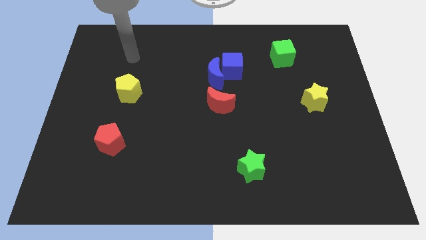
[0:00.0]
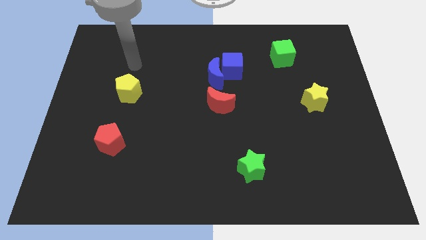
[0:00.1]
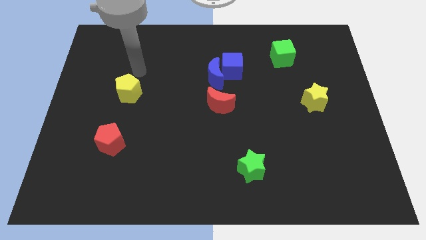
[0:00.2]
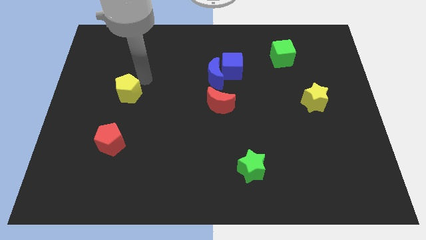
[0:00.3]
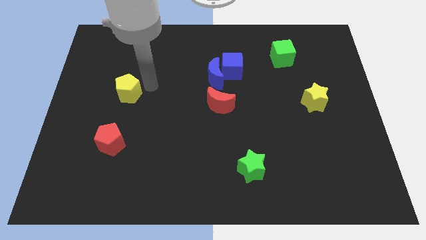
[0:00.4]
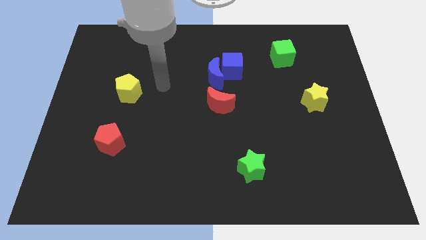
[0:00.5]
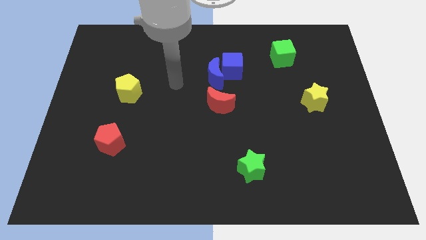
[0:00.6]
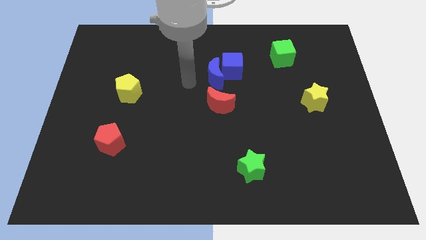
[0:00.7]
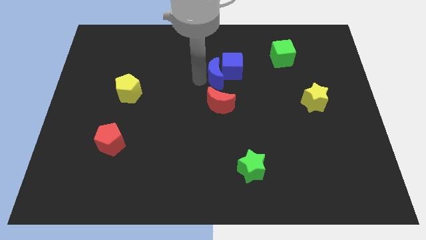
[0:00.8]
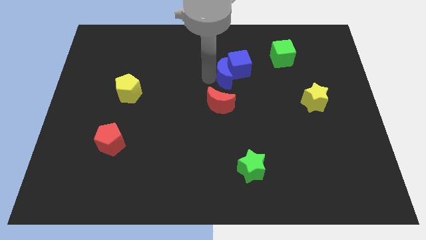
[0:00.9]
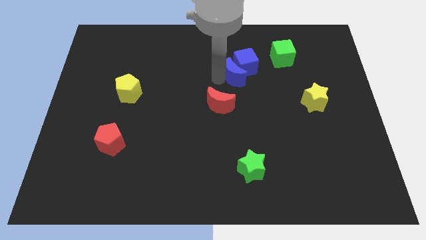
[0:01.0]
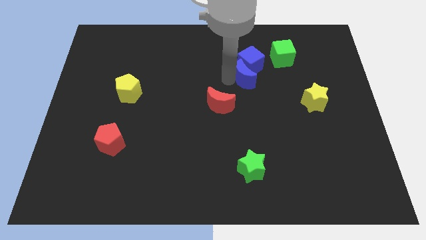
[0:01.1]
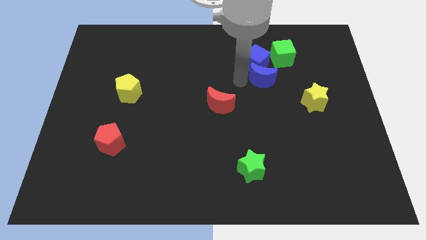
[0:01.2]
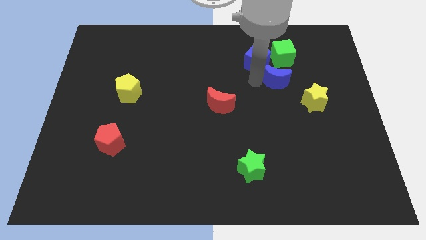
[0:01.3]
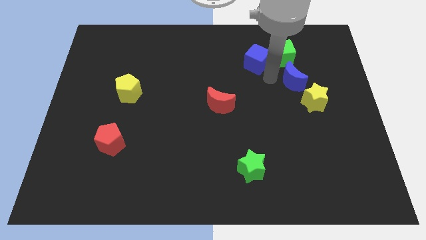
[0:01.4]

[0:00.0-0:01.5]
pull the blue cube apart from the blue moon

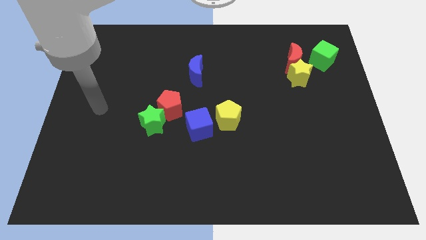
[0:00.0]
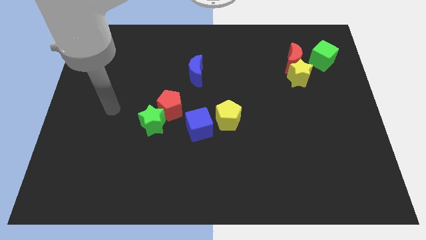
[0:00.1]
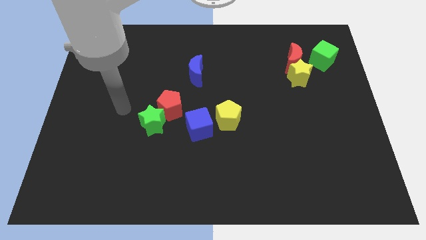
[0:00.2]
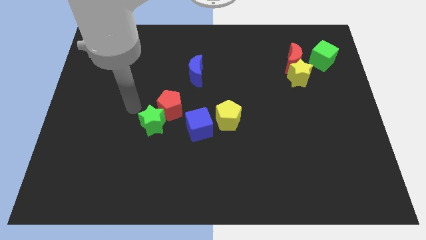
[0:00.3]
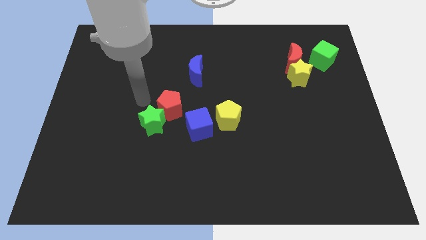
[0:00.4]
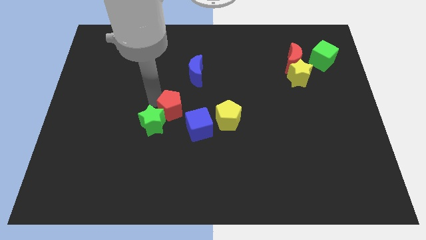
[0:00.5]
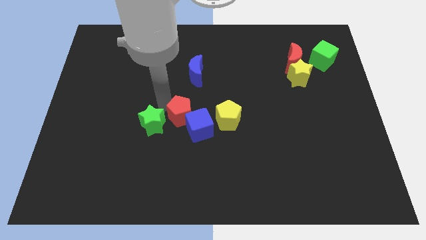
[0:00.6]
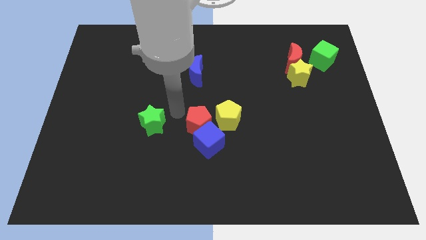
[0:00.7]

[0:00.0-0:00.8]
pull the green star apart from the red pentagon

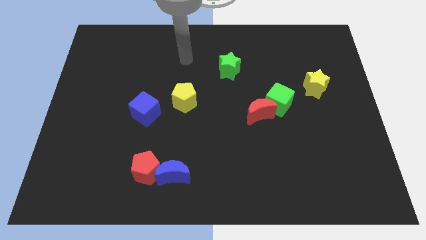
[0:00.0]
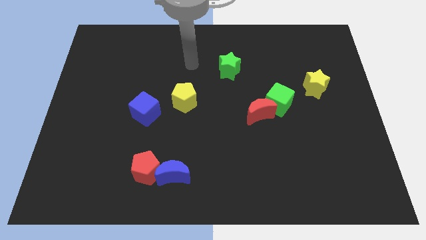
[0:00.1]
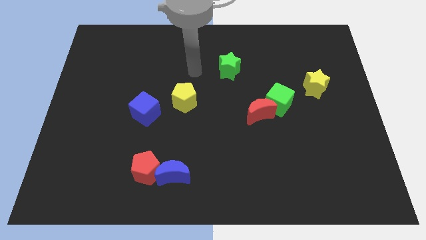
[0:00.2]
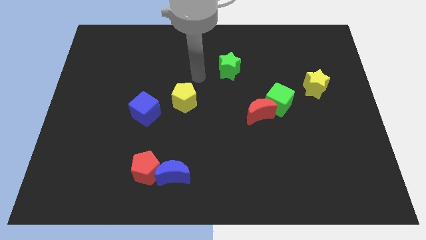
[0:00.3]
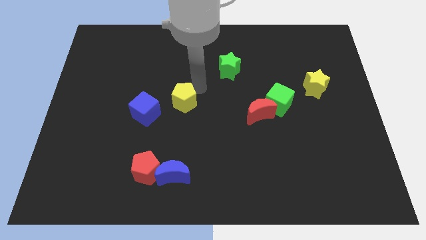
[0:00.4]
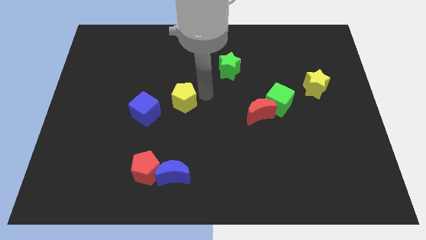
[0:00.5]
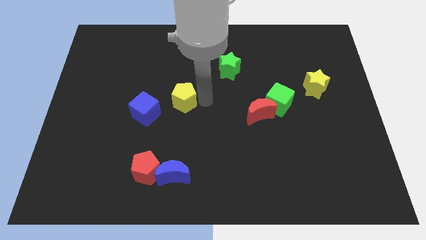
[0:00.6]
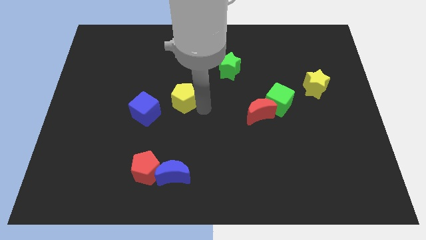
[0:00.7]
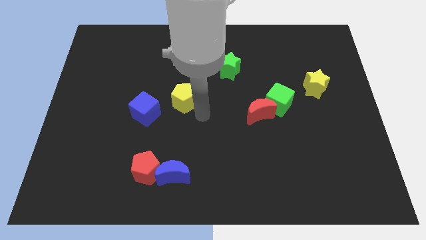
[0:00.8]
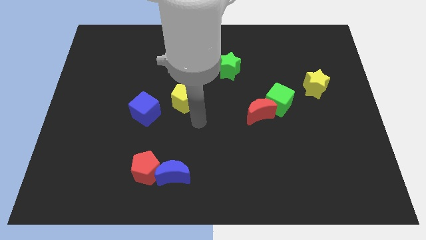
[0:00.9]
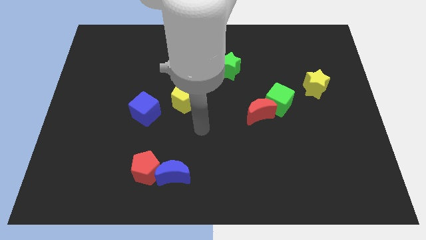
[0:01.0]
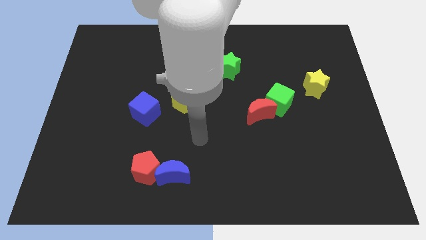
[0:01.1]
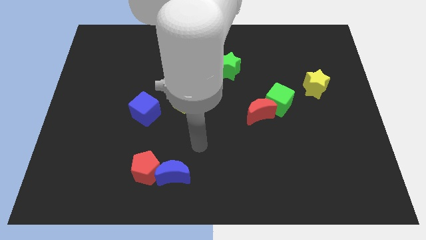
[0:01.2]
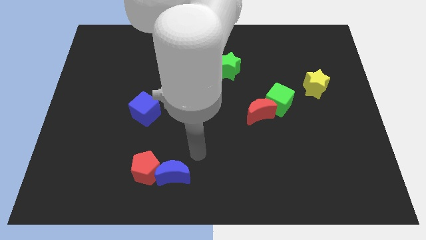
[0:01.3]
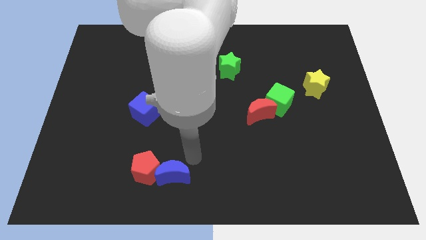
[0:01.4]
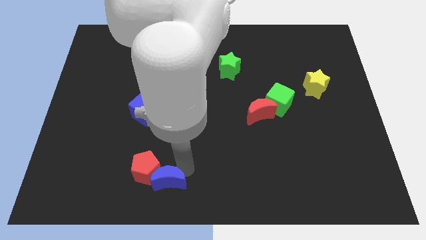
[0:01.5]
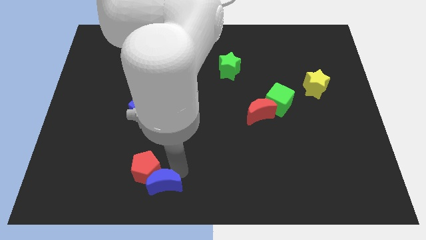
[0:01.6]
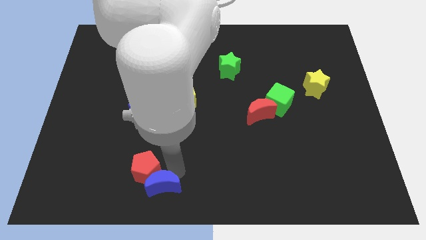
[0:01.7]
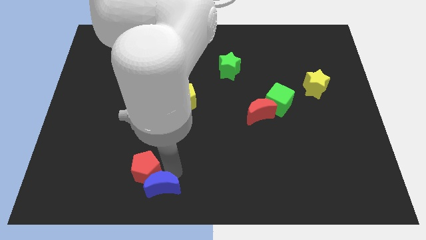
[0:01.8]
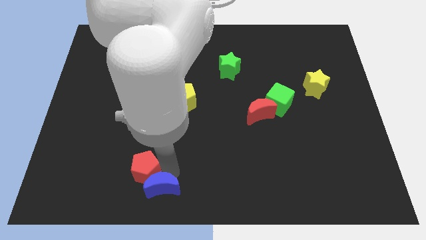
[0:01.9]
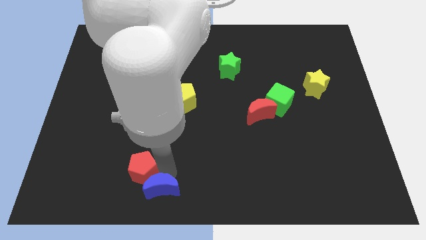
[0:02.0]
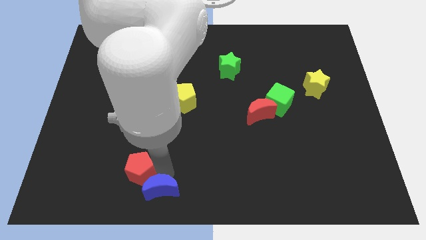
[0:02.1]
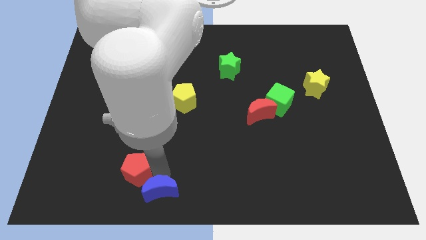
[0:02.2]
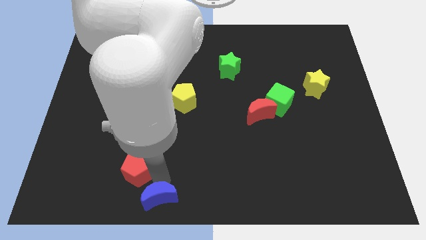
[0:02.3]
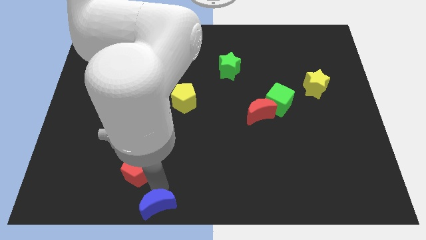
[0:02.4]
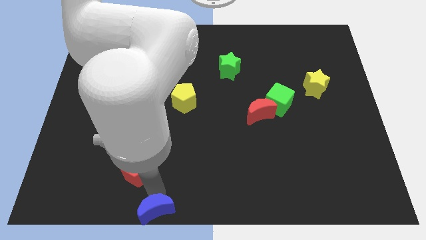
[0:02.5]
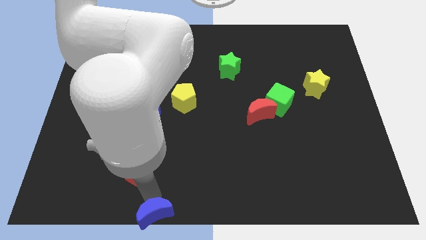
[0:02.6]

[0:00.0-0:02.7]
move the red pentagon away from the blue moon

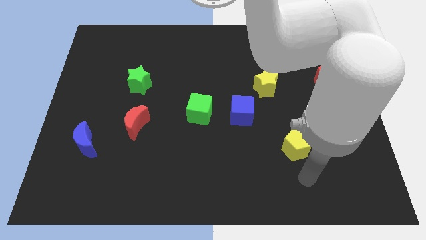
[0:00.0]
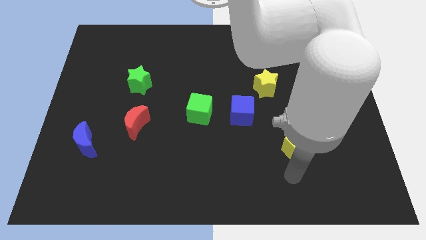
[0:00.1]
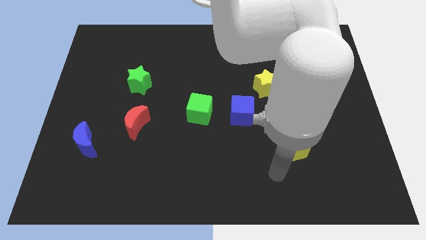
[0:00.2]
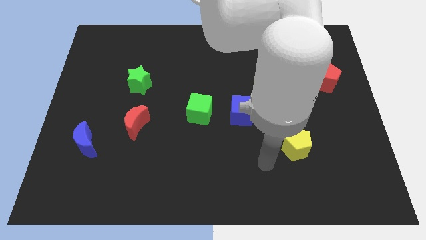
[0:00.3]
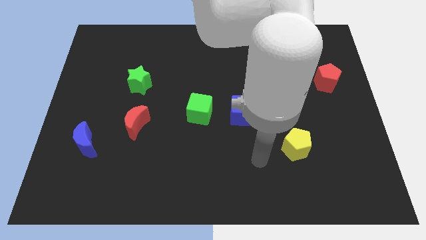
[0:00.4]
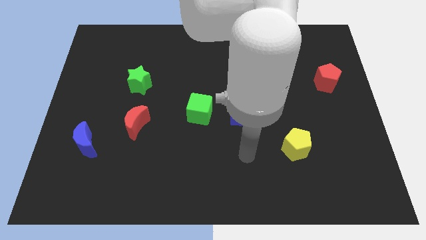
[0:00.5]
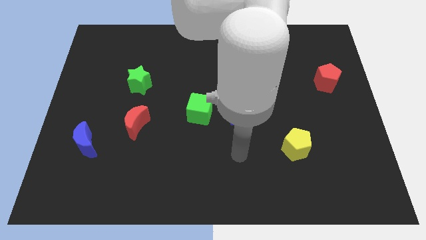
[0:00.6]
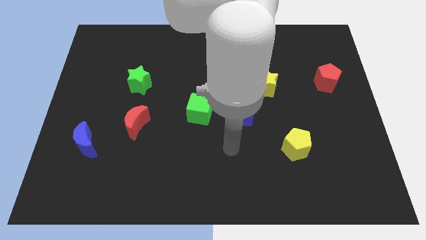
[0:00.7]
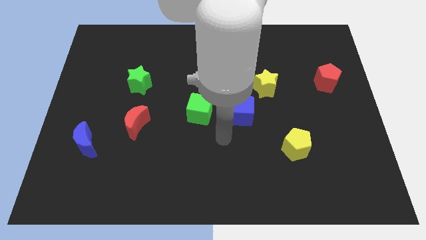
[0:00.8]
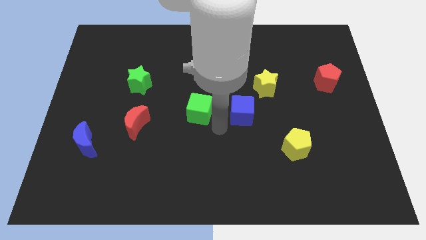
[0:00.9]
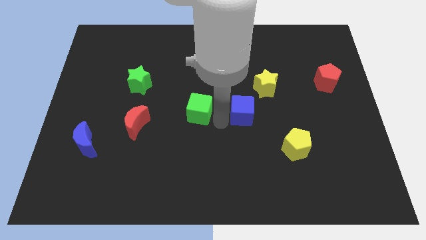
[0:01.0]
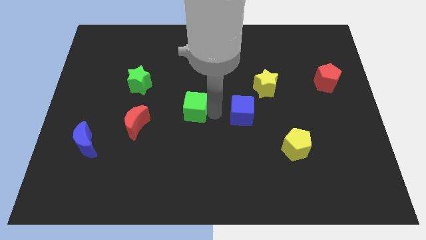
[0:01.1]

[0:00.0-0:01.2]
pull the blue cube apart from the green cube

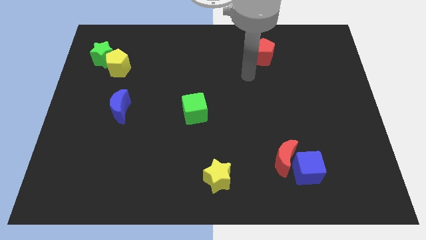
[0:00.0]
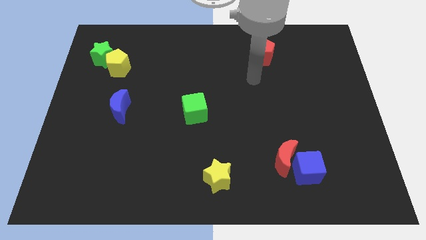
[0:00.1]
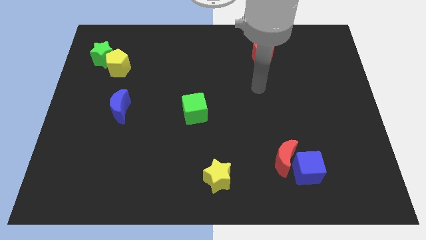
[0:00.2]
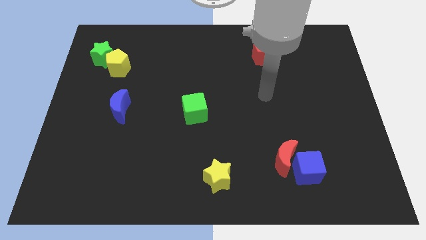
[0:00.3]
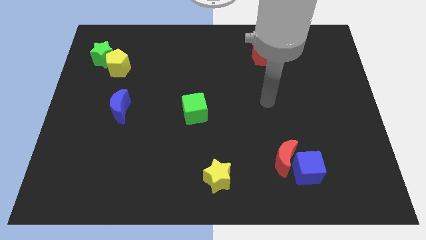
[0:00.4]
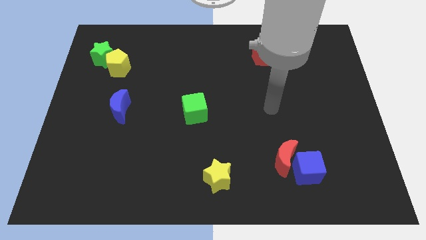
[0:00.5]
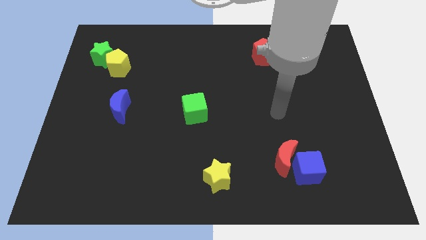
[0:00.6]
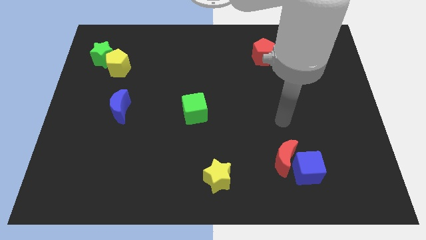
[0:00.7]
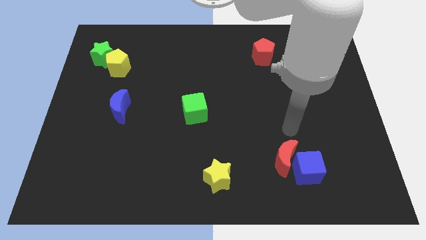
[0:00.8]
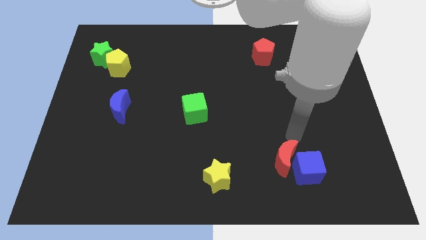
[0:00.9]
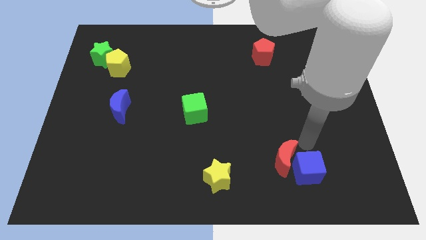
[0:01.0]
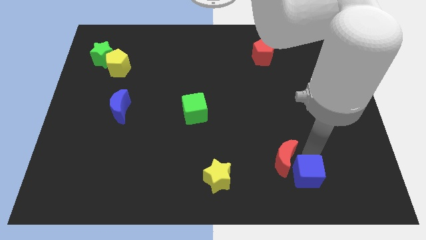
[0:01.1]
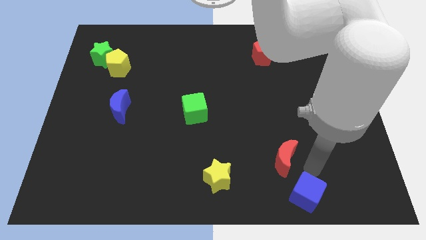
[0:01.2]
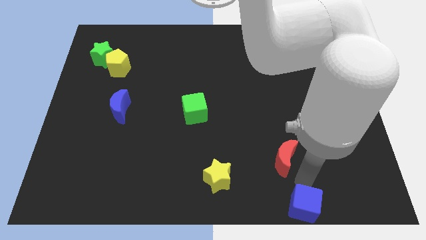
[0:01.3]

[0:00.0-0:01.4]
move the red moon away from the blue cube

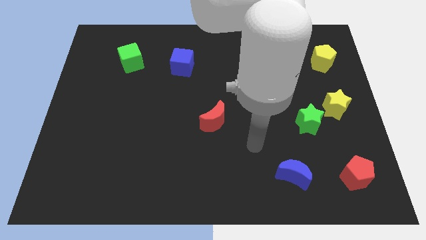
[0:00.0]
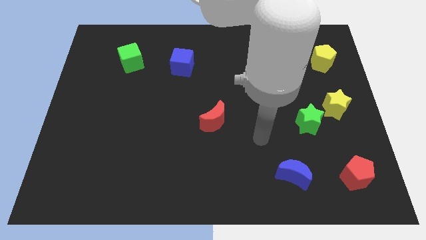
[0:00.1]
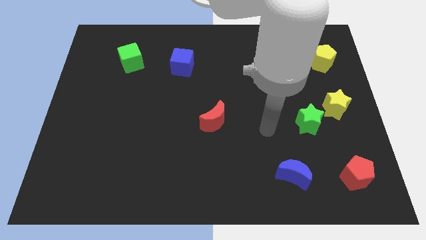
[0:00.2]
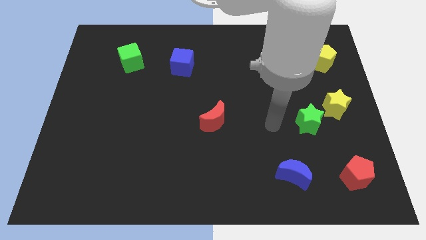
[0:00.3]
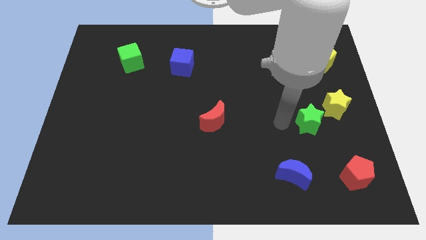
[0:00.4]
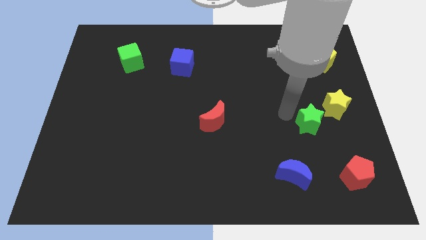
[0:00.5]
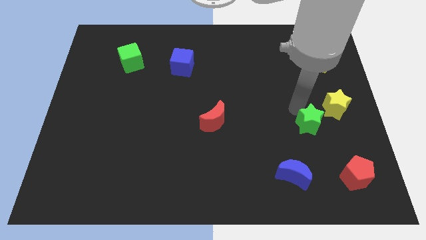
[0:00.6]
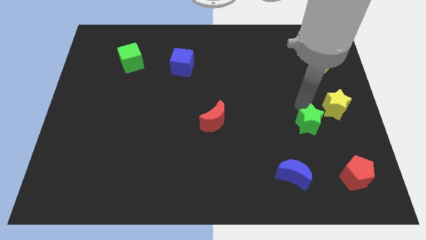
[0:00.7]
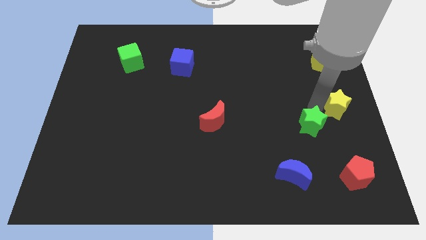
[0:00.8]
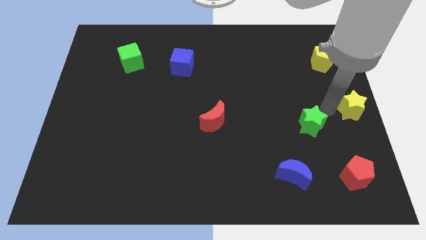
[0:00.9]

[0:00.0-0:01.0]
move the green star away from the yellow star

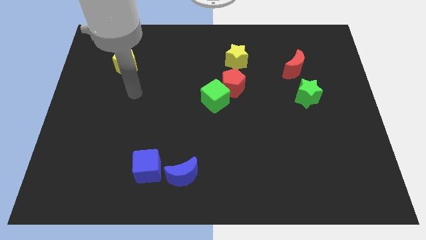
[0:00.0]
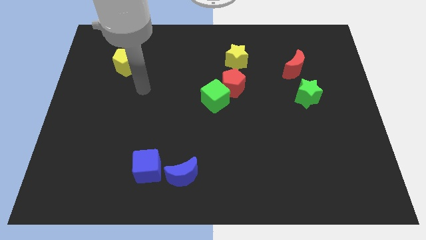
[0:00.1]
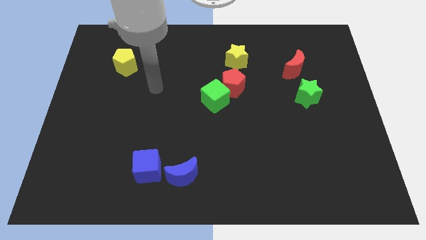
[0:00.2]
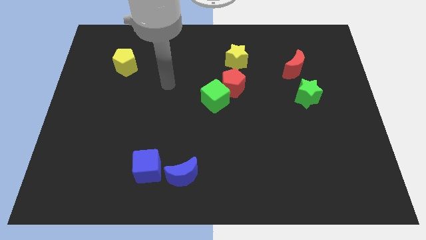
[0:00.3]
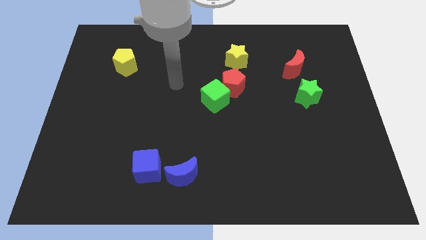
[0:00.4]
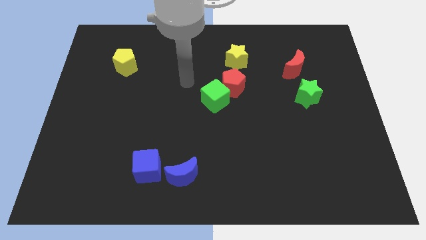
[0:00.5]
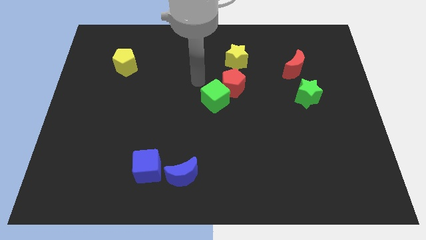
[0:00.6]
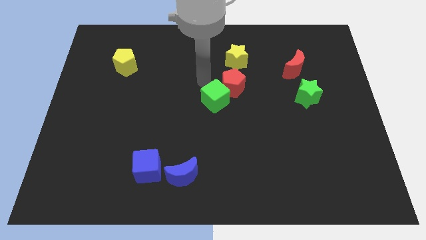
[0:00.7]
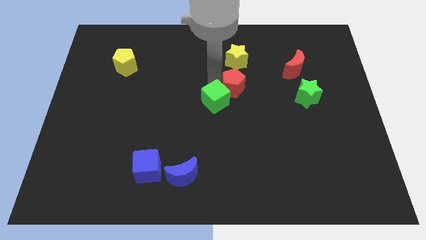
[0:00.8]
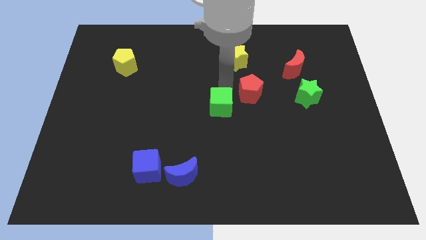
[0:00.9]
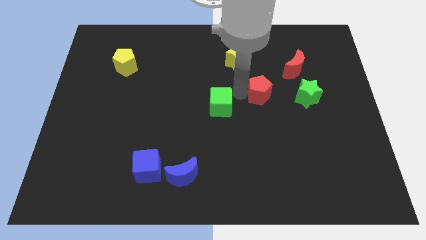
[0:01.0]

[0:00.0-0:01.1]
pull the green cube apart from the red pentagon
